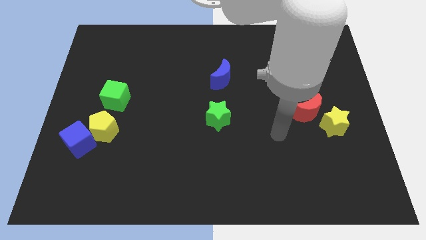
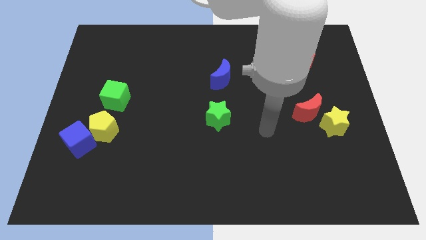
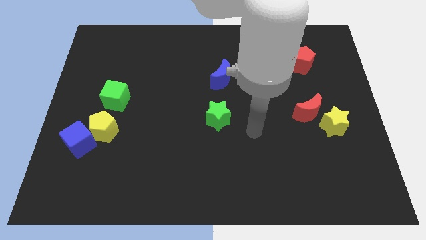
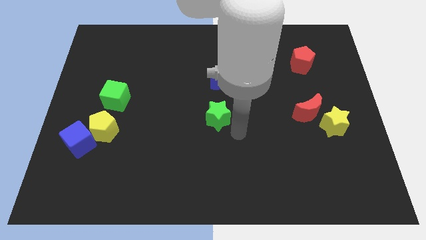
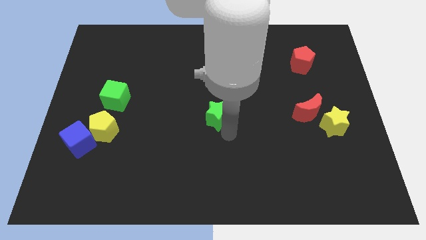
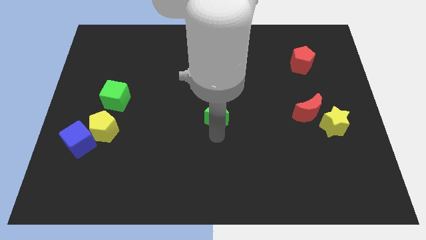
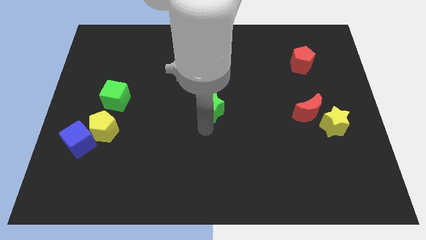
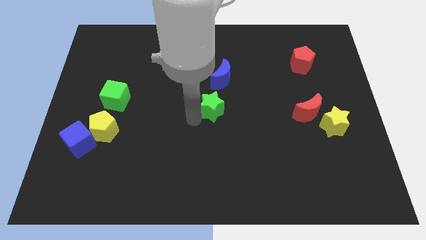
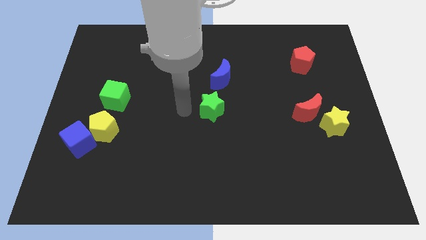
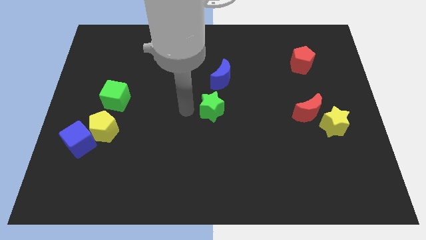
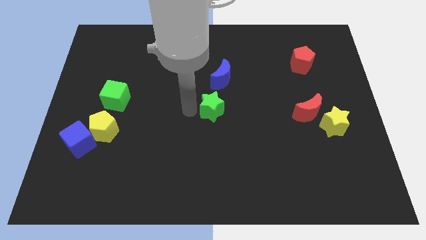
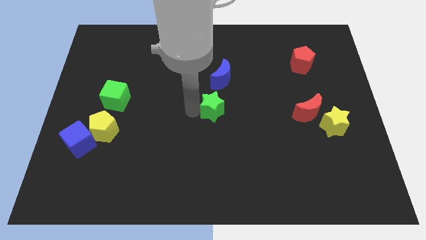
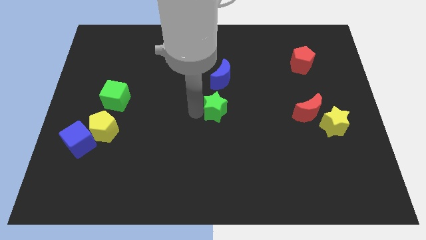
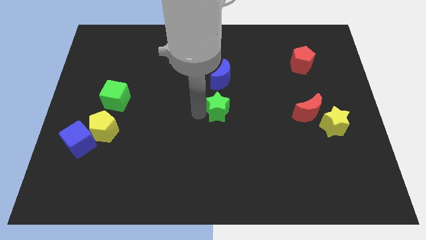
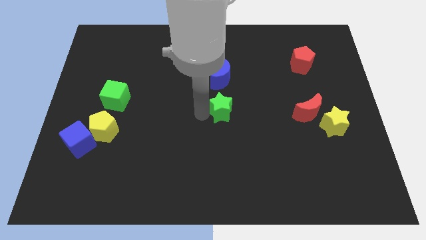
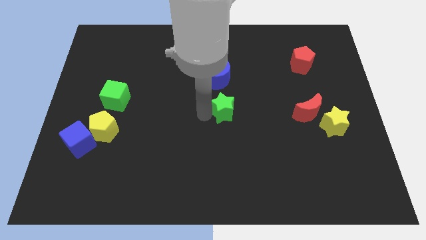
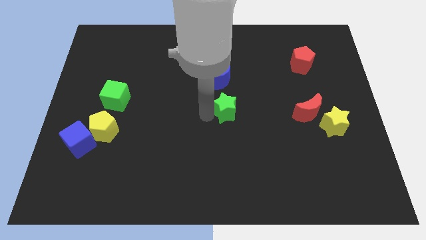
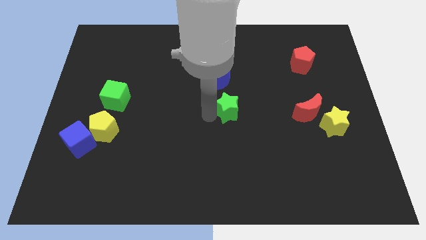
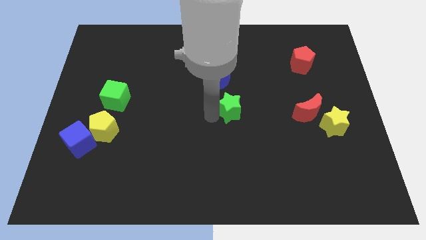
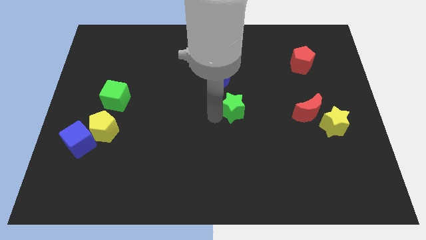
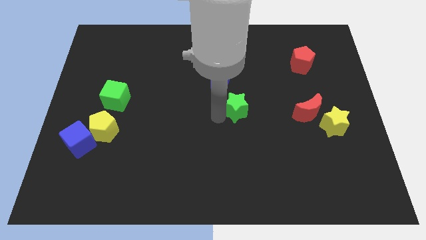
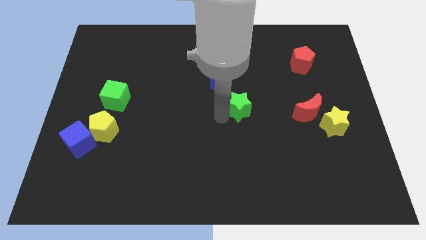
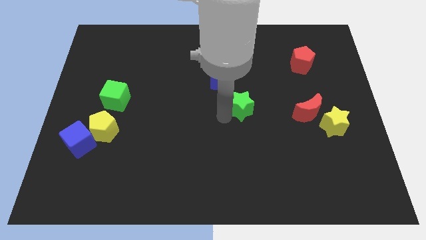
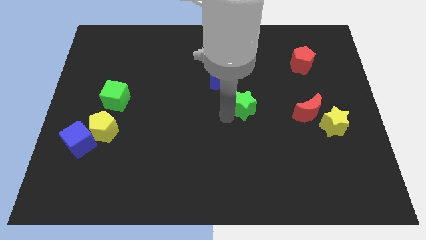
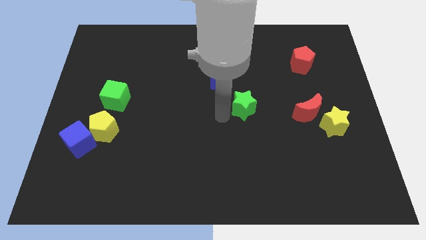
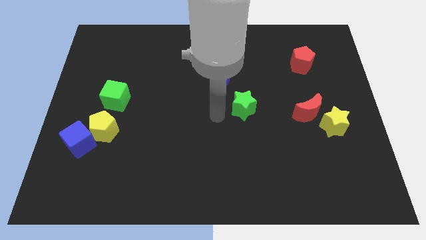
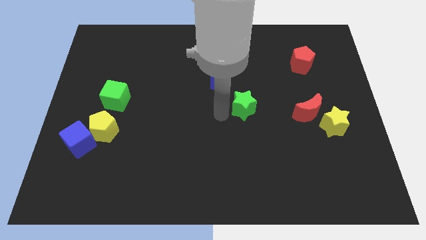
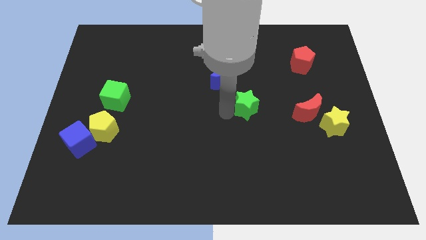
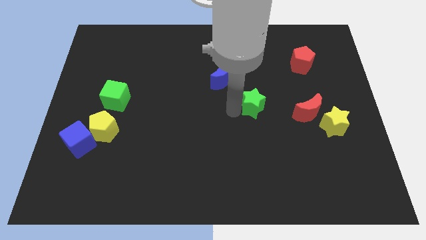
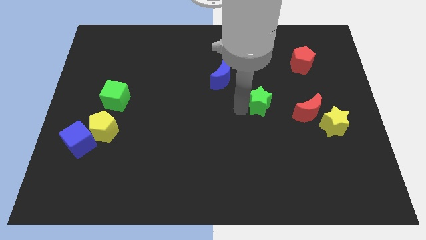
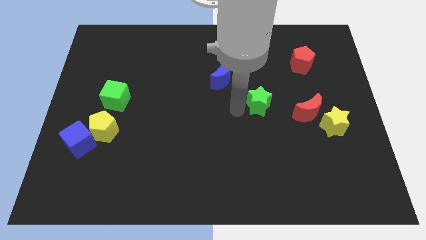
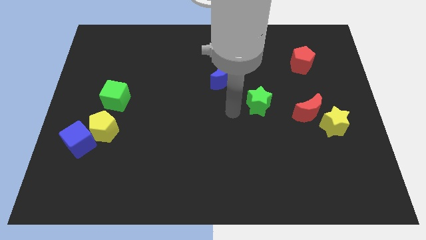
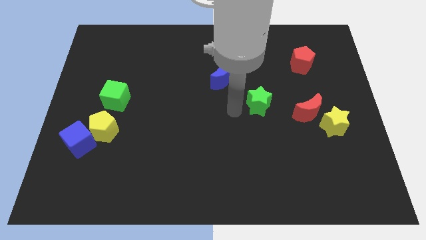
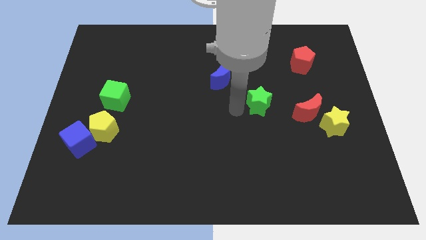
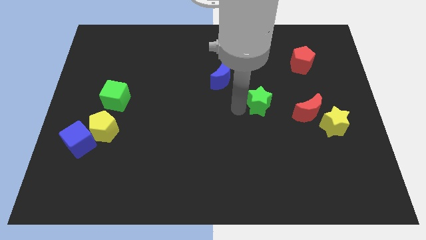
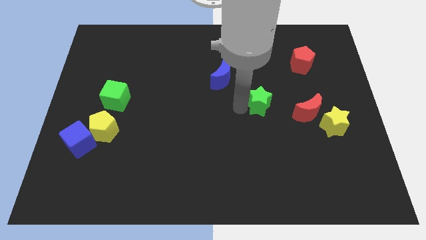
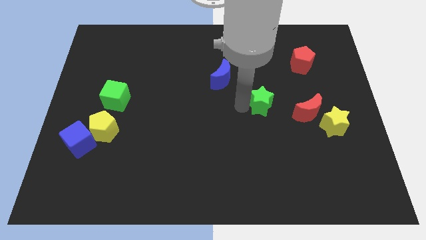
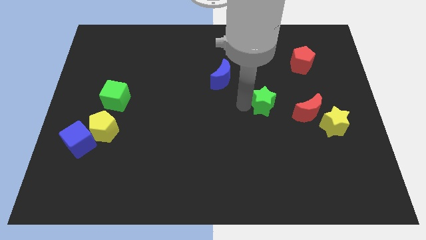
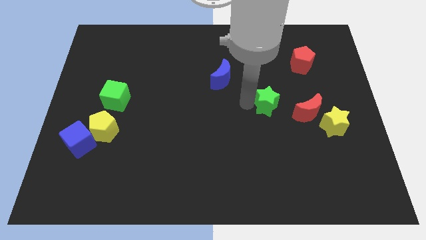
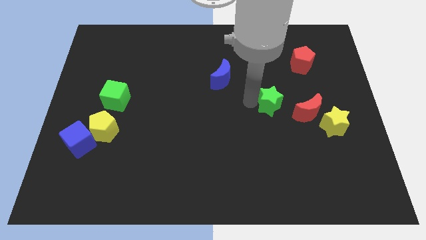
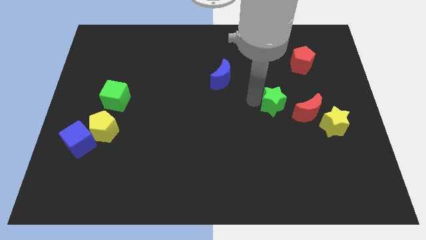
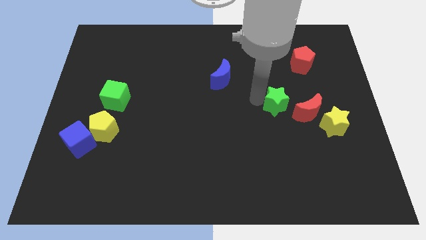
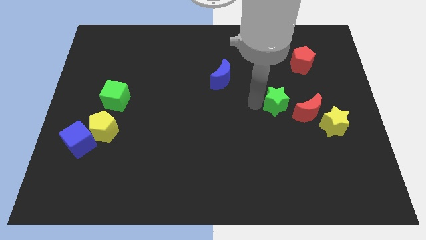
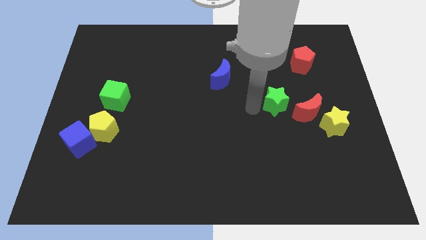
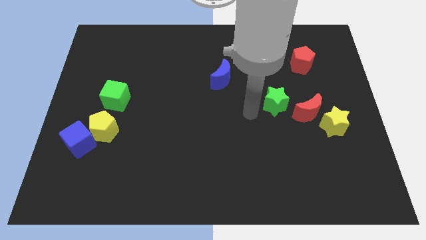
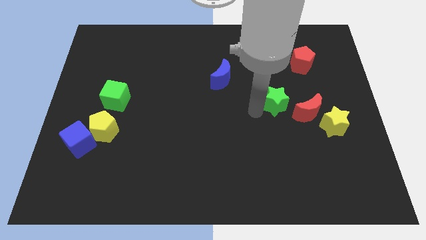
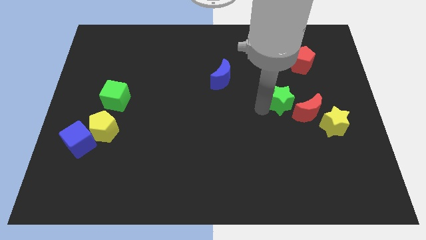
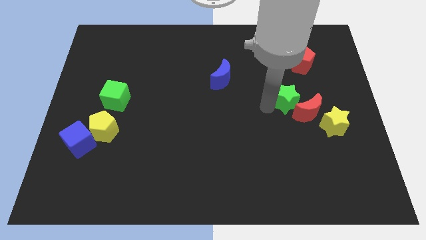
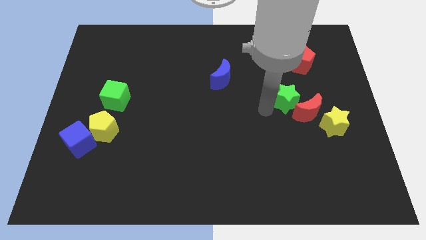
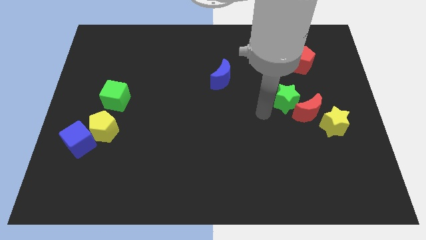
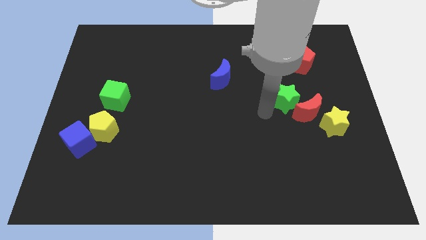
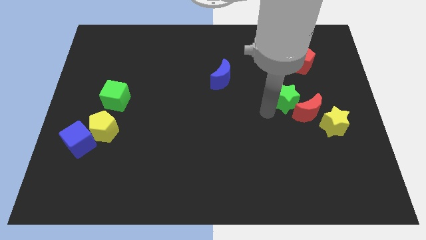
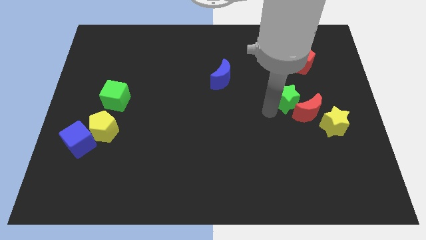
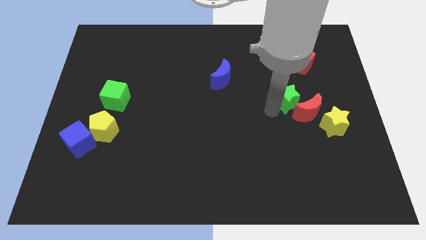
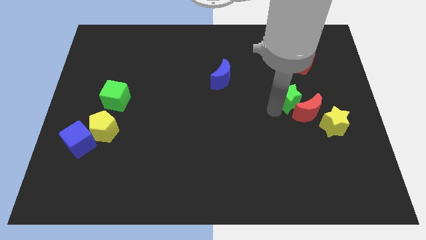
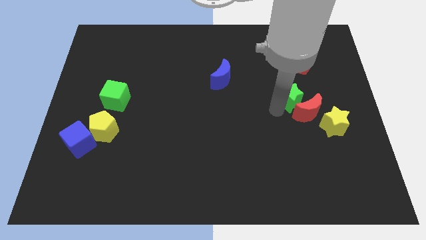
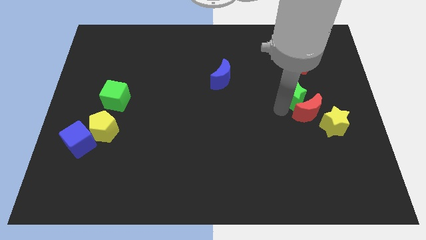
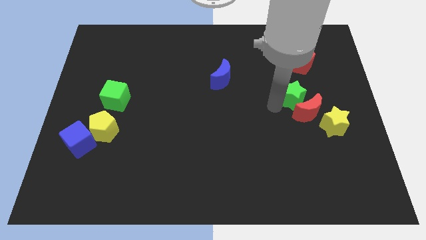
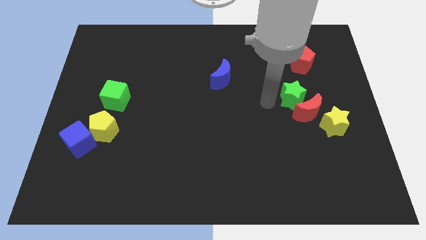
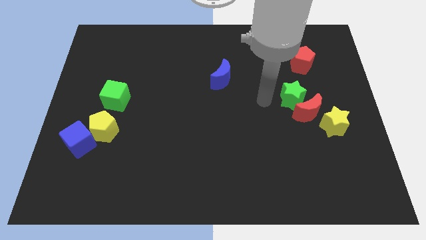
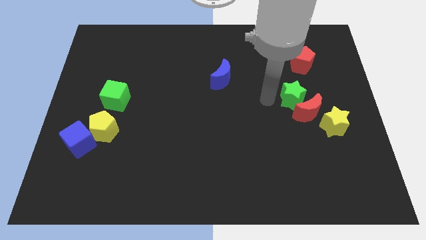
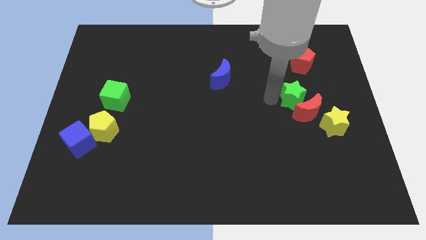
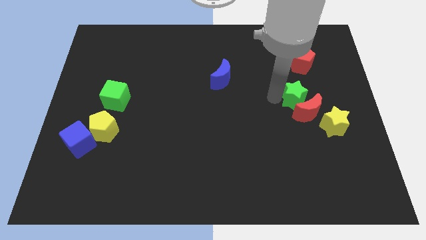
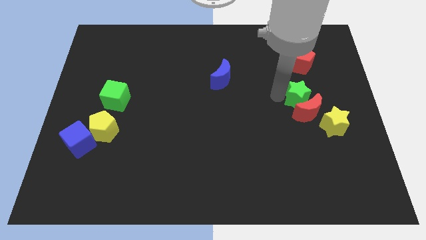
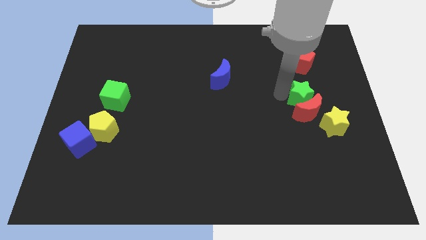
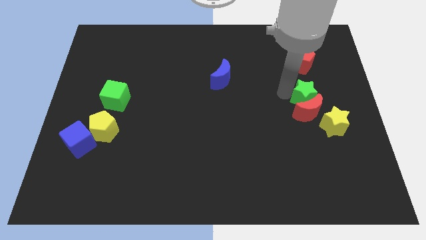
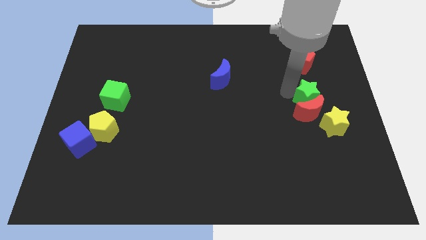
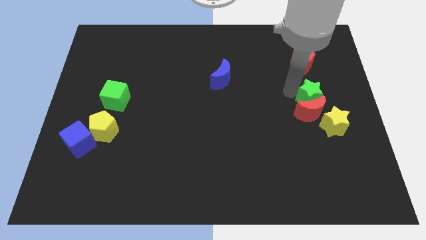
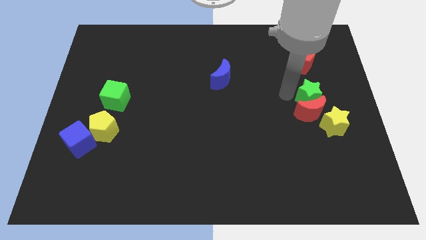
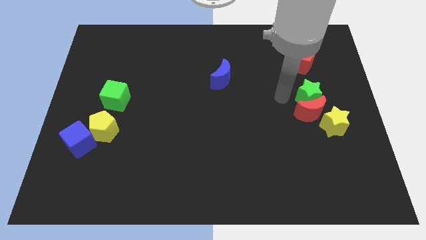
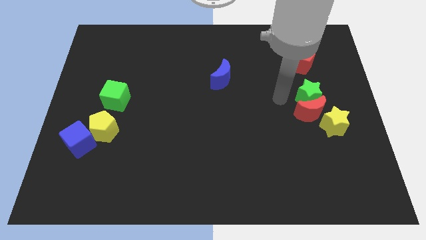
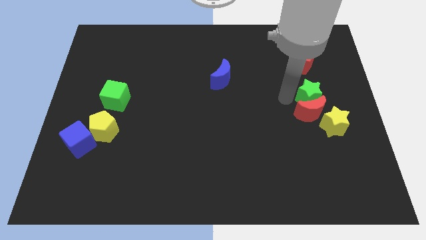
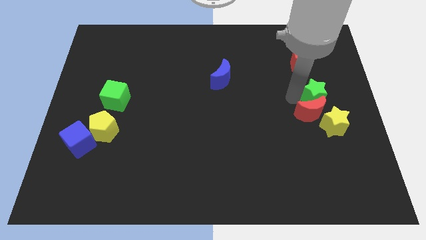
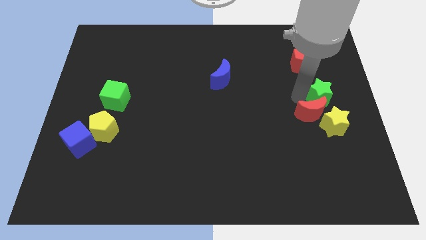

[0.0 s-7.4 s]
push the green star to the right side of the board
